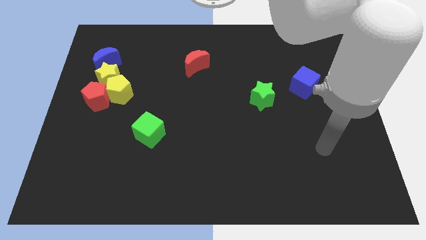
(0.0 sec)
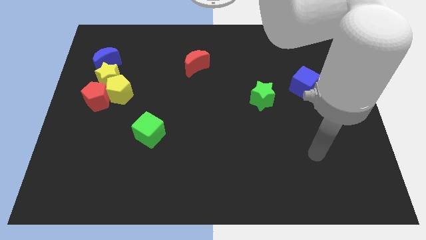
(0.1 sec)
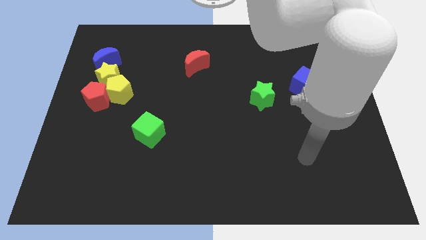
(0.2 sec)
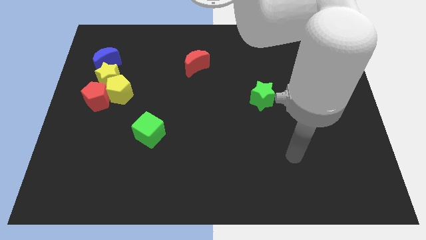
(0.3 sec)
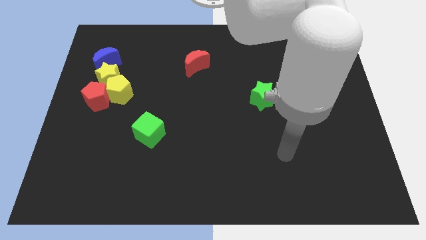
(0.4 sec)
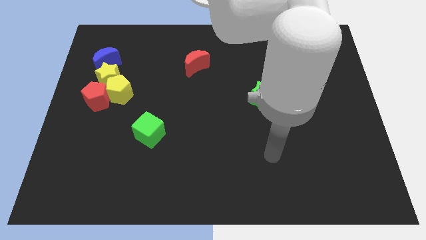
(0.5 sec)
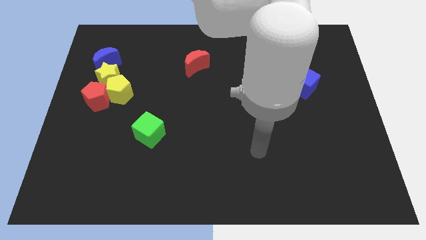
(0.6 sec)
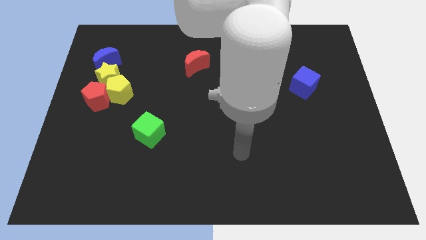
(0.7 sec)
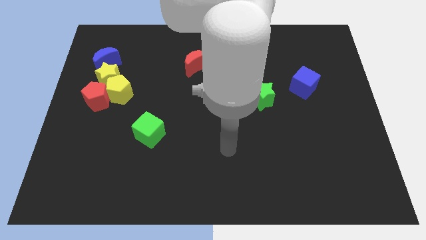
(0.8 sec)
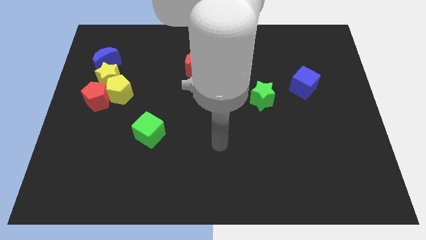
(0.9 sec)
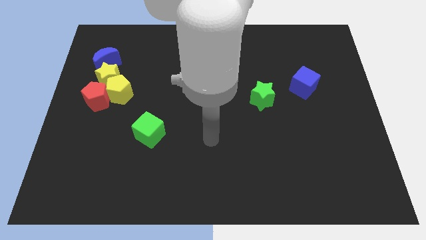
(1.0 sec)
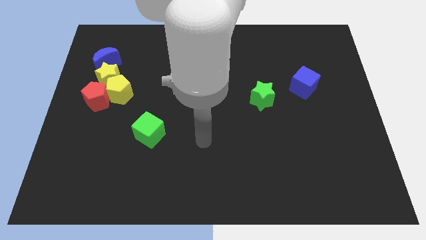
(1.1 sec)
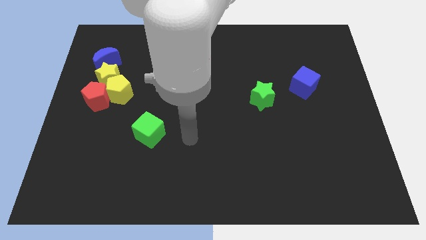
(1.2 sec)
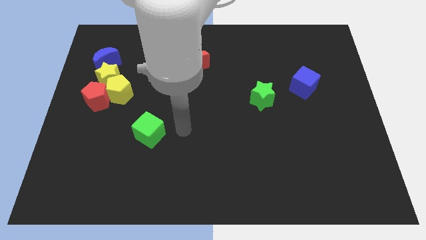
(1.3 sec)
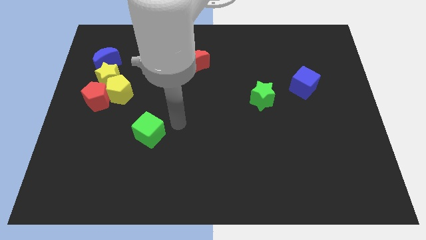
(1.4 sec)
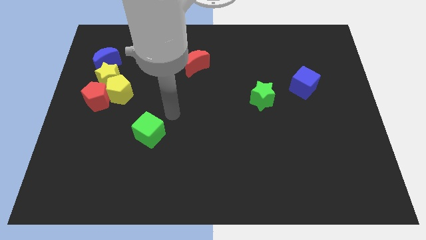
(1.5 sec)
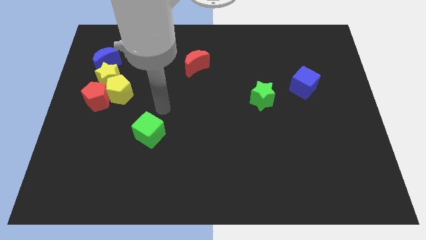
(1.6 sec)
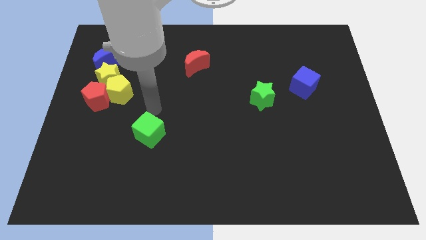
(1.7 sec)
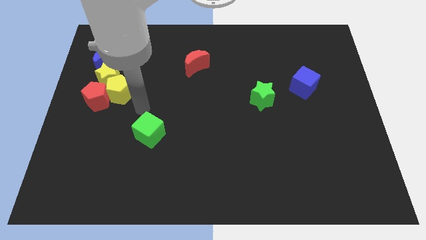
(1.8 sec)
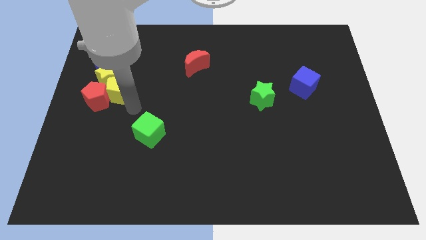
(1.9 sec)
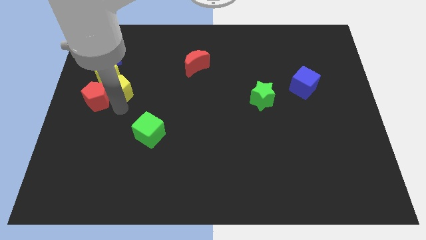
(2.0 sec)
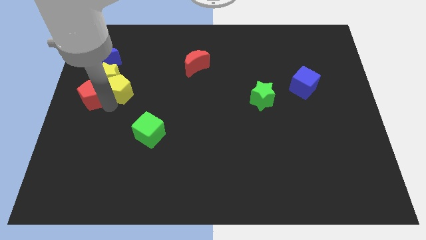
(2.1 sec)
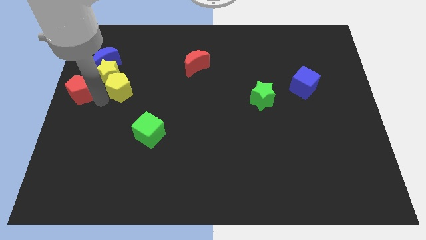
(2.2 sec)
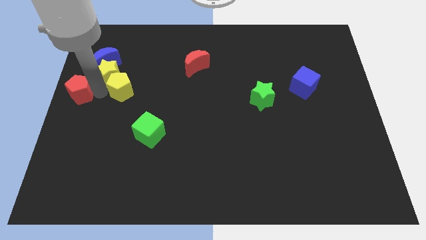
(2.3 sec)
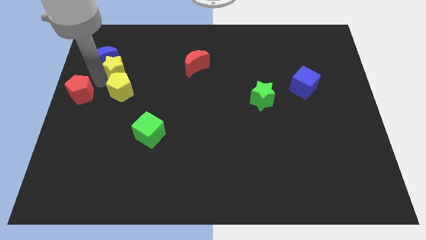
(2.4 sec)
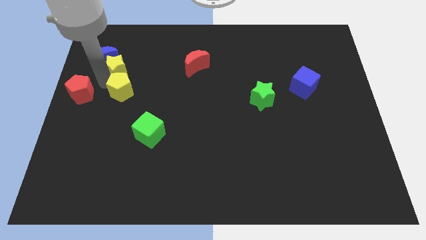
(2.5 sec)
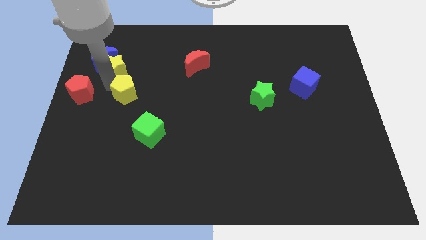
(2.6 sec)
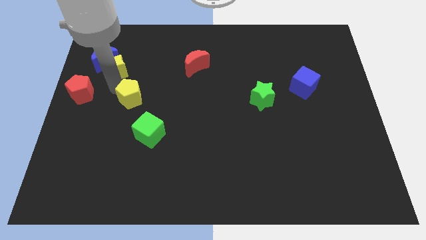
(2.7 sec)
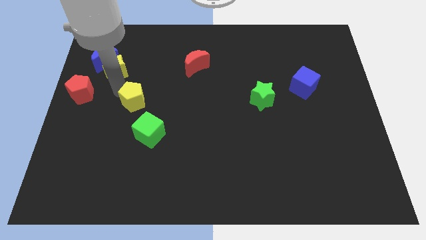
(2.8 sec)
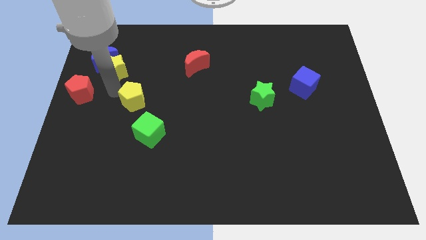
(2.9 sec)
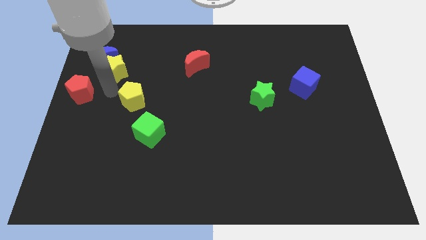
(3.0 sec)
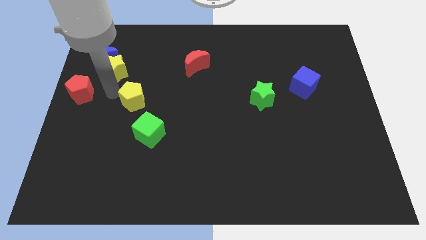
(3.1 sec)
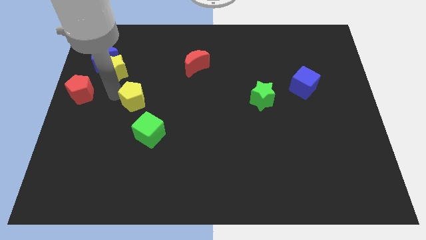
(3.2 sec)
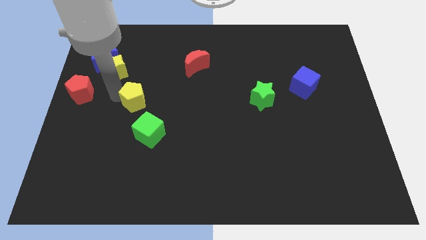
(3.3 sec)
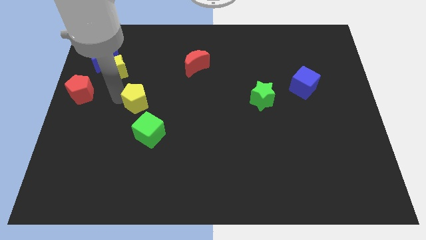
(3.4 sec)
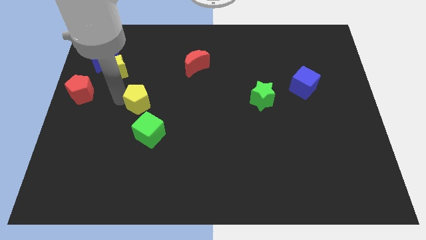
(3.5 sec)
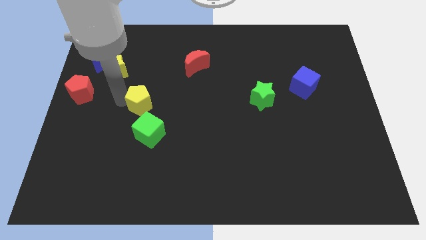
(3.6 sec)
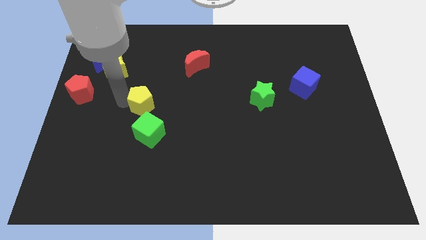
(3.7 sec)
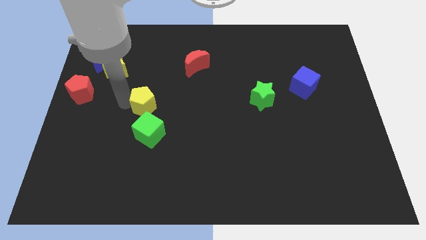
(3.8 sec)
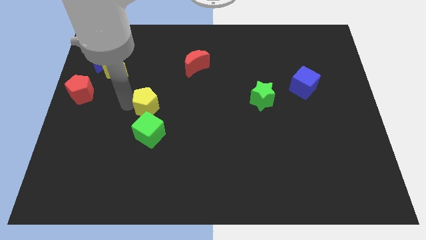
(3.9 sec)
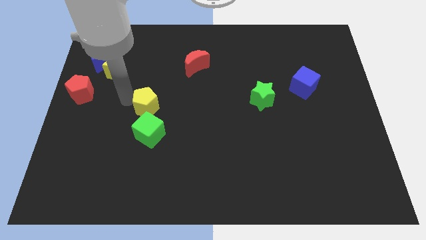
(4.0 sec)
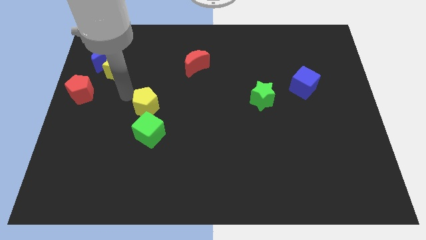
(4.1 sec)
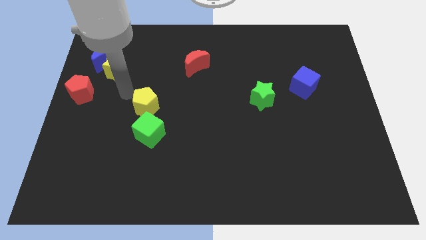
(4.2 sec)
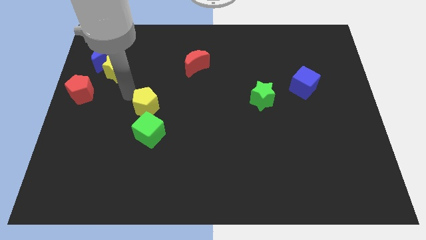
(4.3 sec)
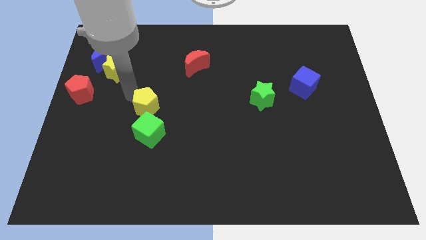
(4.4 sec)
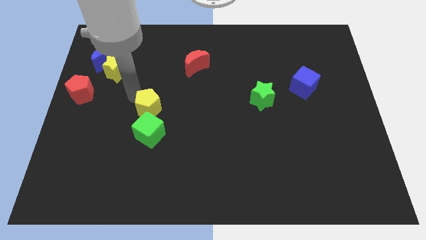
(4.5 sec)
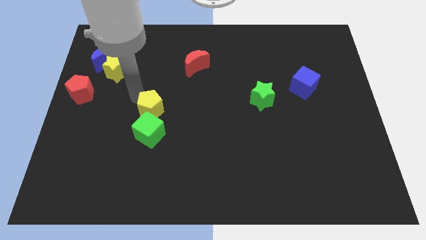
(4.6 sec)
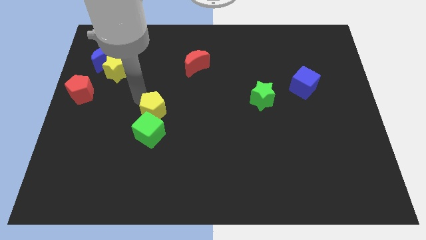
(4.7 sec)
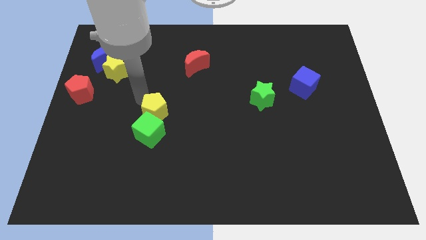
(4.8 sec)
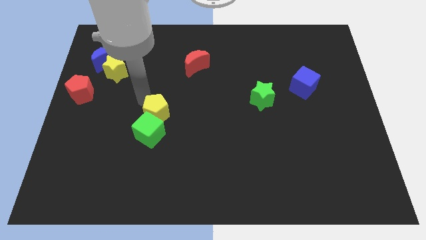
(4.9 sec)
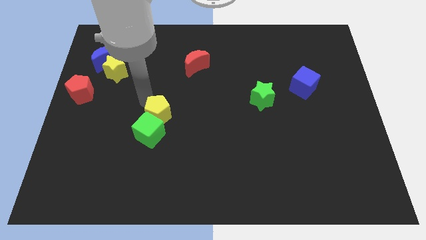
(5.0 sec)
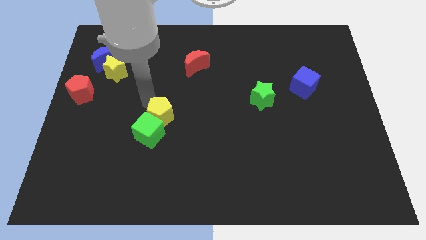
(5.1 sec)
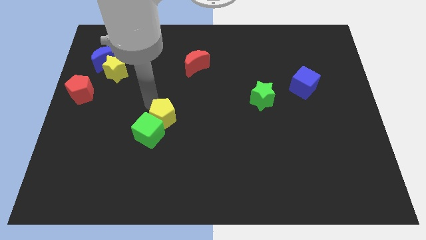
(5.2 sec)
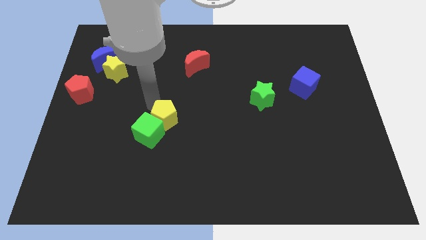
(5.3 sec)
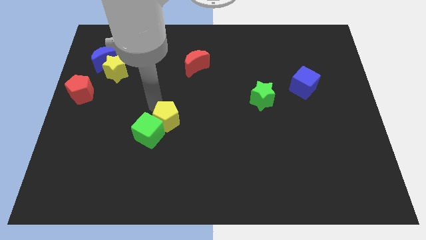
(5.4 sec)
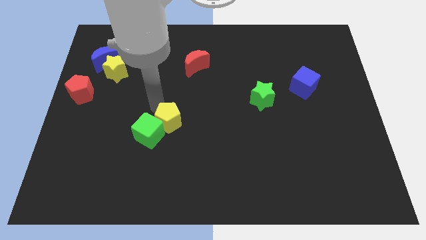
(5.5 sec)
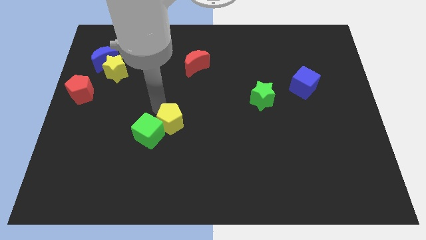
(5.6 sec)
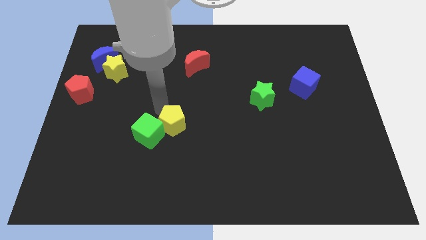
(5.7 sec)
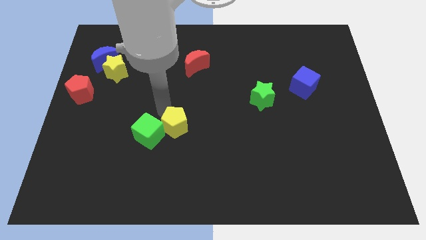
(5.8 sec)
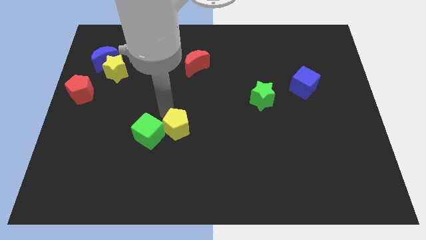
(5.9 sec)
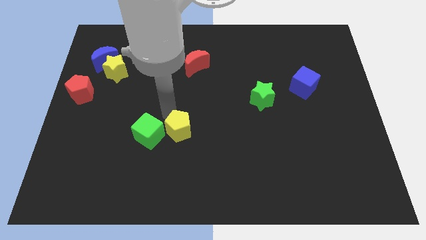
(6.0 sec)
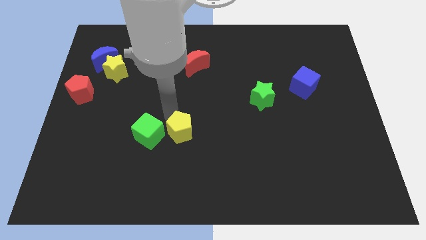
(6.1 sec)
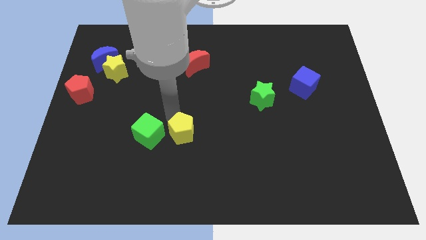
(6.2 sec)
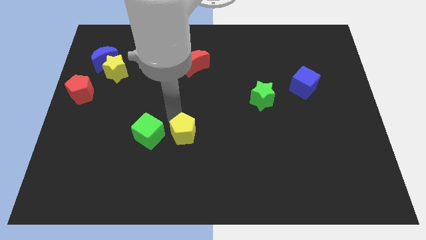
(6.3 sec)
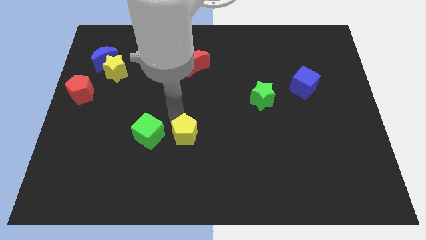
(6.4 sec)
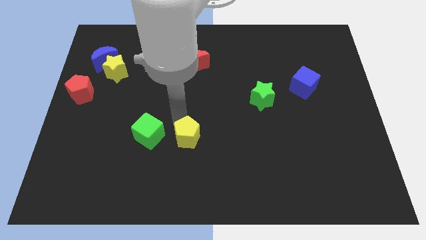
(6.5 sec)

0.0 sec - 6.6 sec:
slide the yellow pentagon down and right diagonally

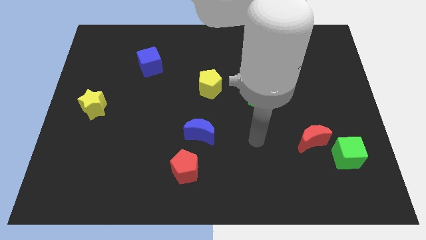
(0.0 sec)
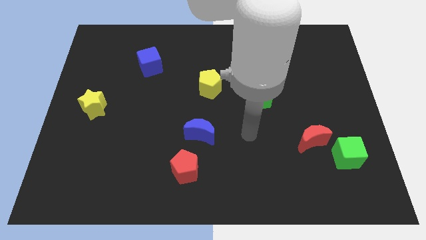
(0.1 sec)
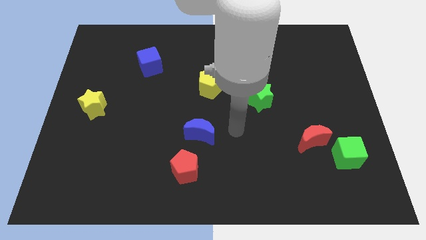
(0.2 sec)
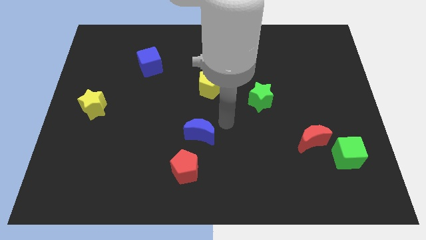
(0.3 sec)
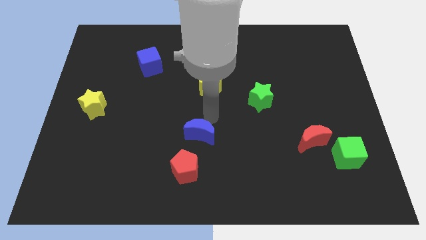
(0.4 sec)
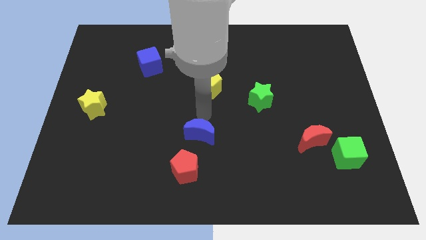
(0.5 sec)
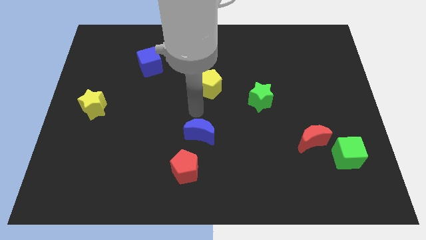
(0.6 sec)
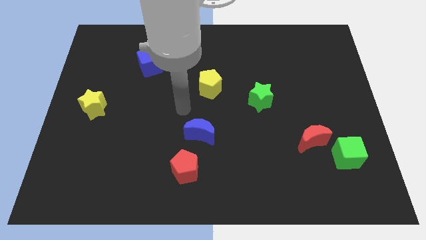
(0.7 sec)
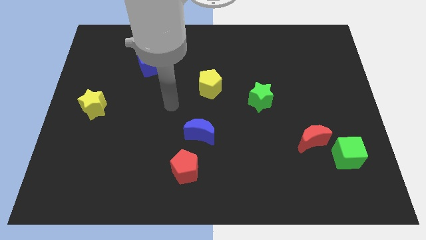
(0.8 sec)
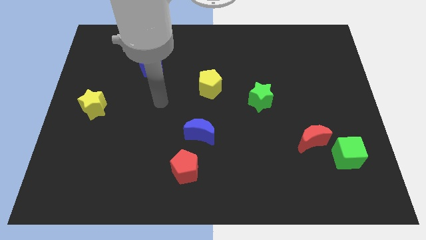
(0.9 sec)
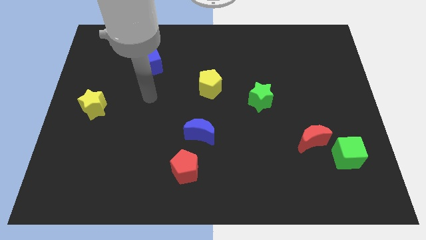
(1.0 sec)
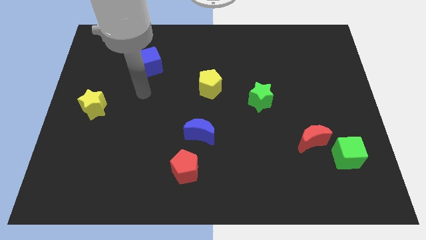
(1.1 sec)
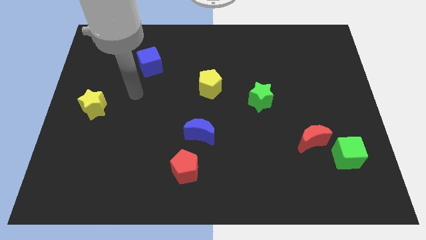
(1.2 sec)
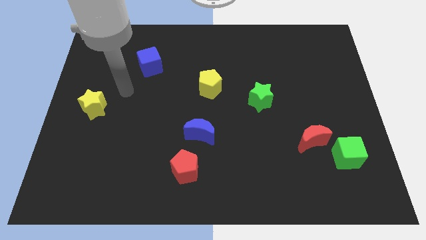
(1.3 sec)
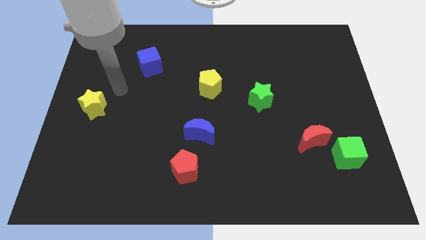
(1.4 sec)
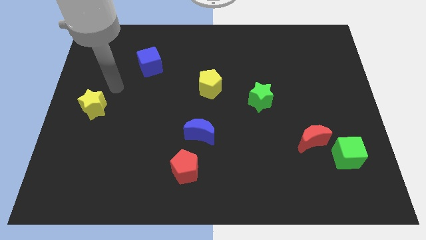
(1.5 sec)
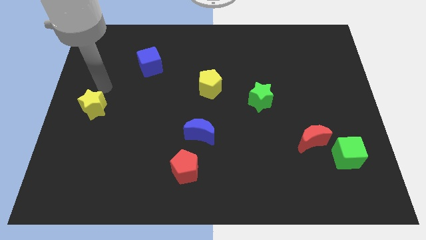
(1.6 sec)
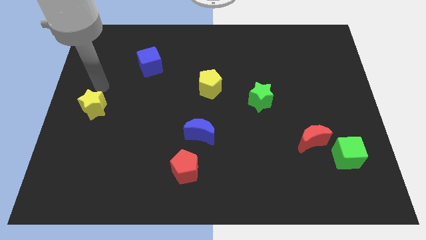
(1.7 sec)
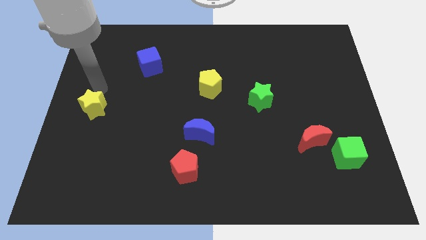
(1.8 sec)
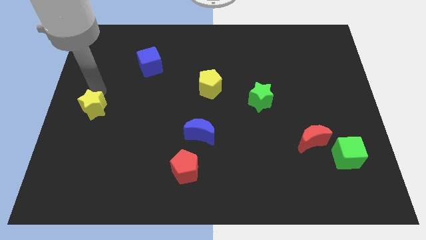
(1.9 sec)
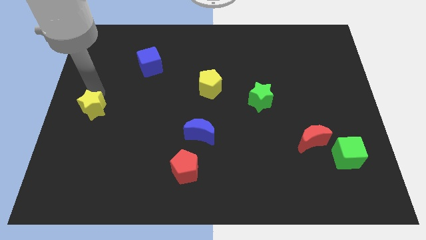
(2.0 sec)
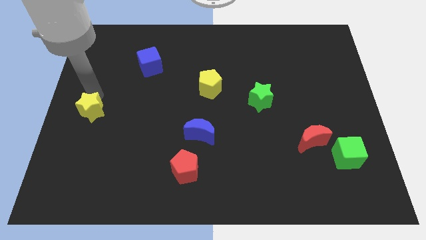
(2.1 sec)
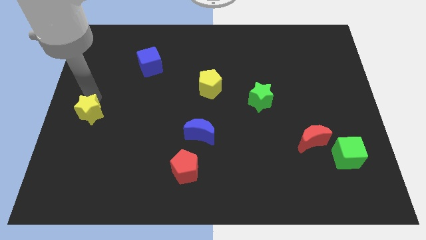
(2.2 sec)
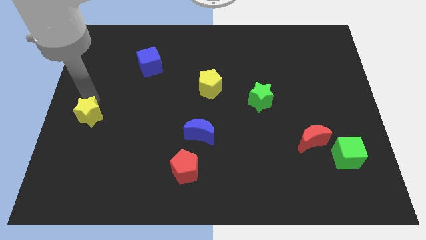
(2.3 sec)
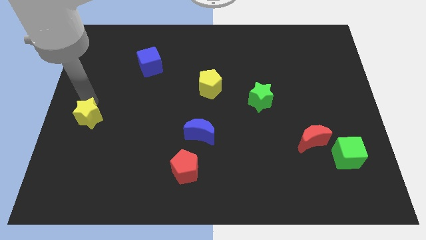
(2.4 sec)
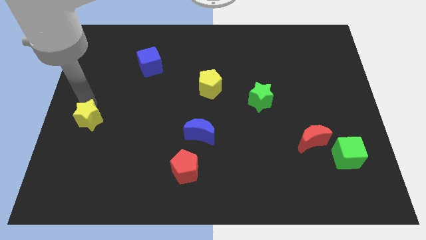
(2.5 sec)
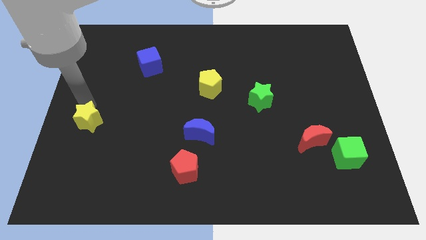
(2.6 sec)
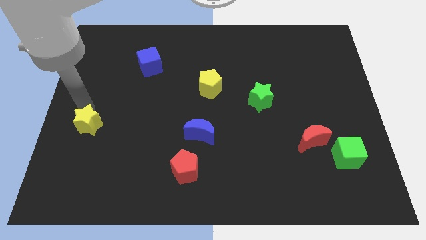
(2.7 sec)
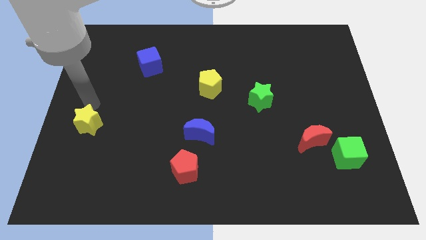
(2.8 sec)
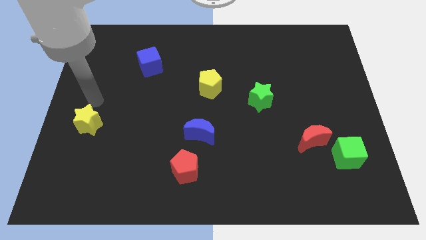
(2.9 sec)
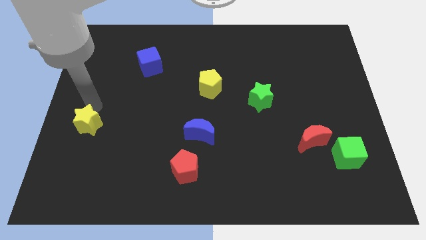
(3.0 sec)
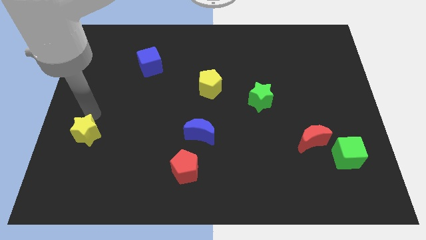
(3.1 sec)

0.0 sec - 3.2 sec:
slide the yellow star down a little
